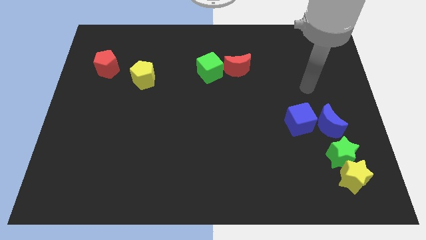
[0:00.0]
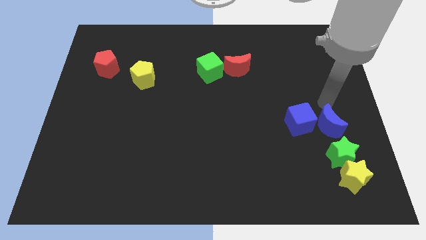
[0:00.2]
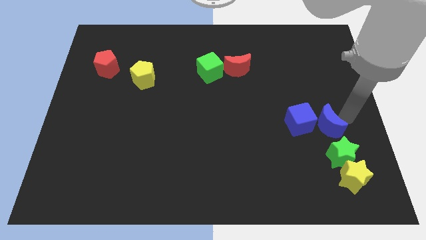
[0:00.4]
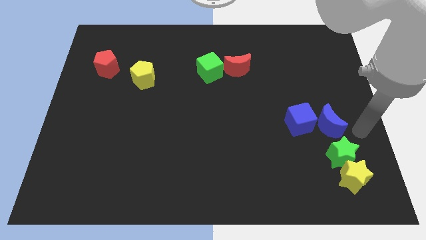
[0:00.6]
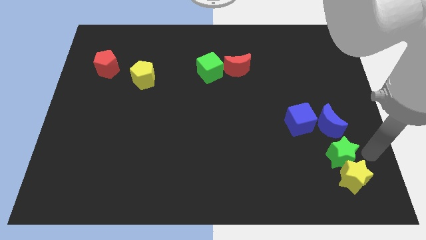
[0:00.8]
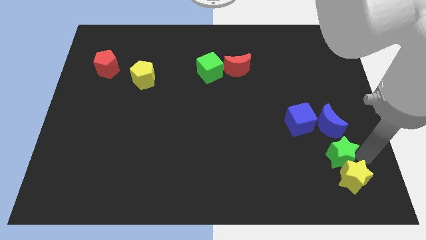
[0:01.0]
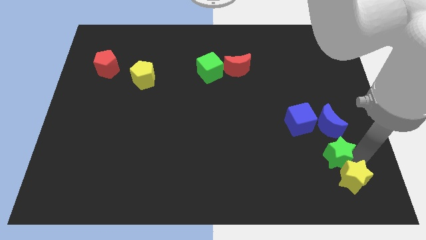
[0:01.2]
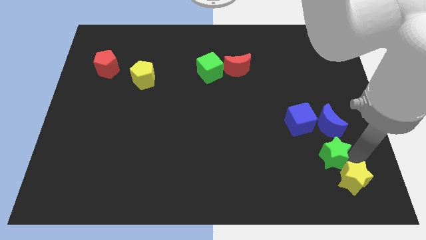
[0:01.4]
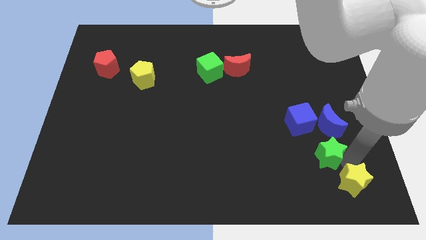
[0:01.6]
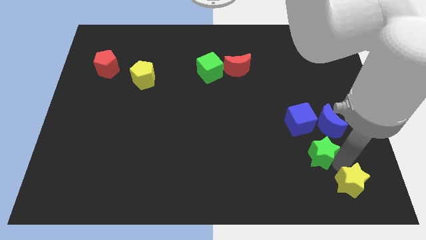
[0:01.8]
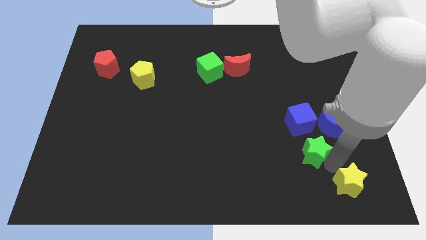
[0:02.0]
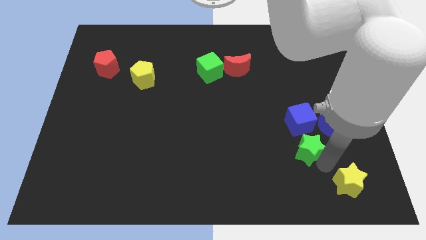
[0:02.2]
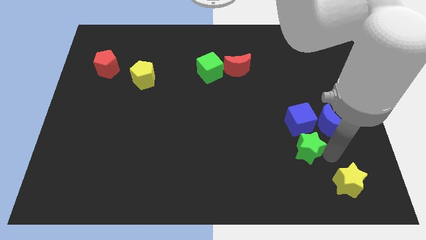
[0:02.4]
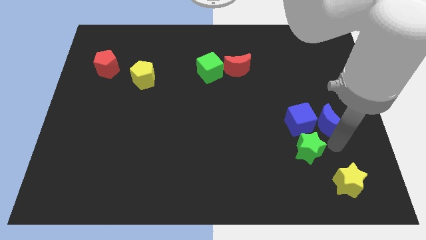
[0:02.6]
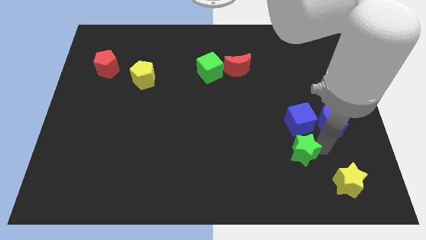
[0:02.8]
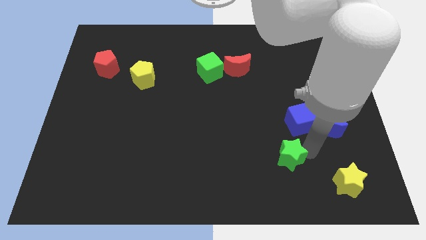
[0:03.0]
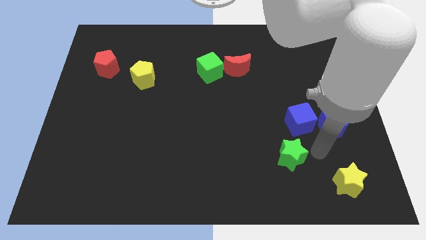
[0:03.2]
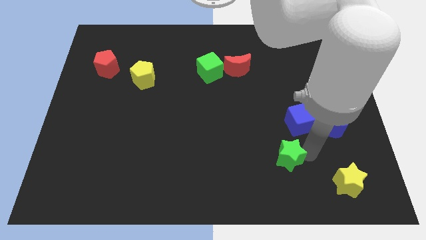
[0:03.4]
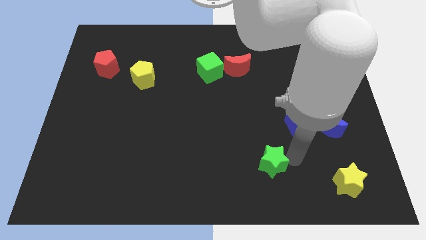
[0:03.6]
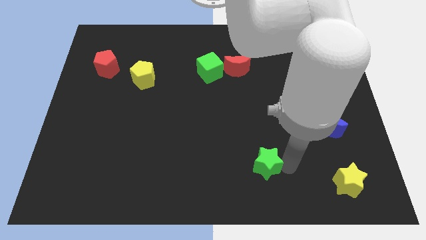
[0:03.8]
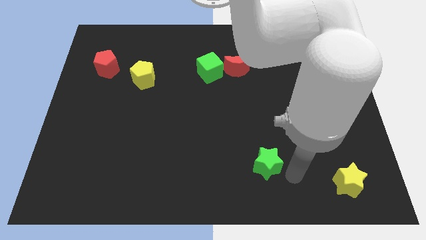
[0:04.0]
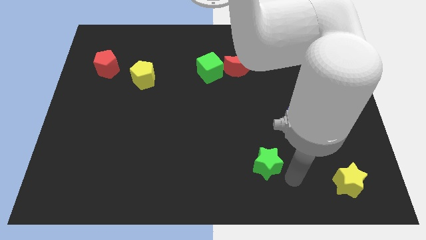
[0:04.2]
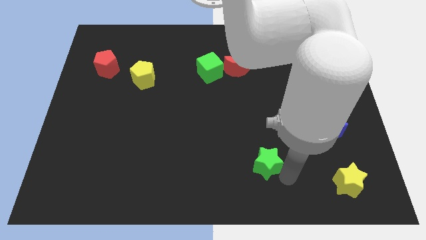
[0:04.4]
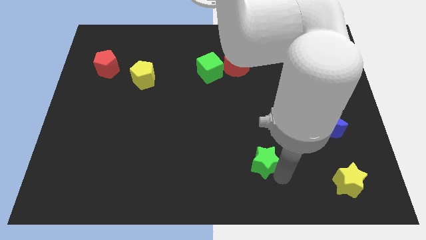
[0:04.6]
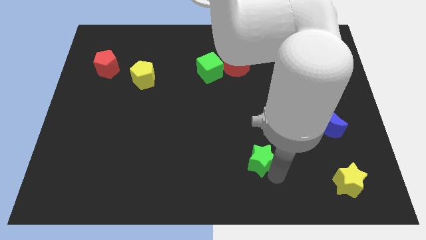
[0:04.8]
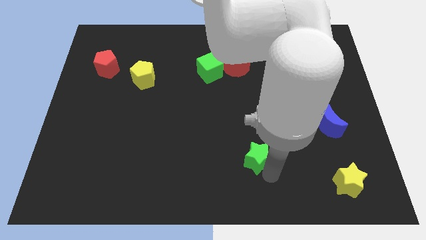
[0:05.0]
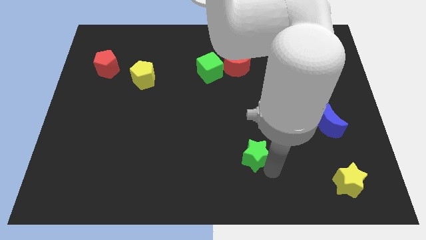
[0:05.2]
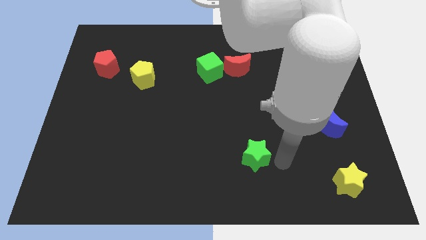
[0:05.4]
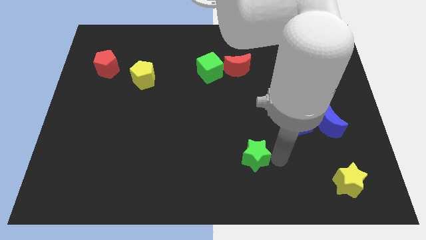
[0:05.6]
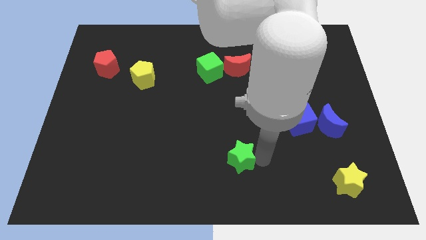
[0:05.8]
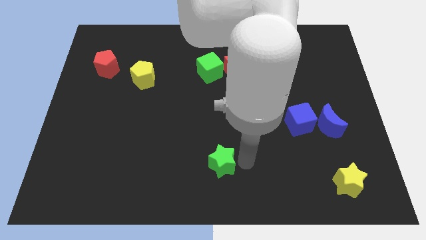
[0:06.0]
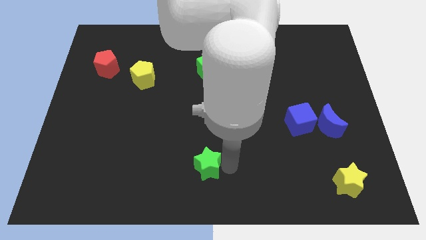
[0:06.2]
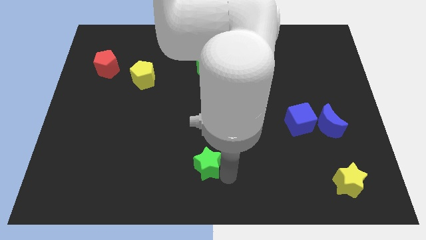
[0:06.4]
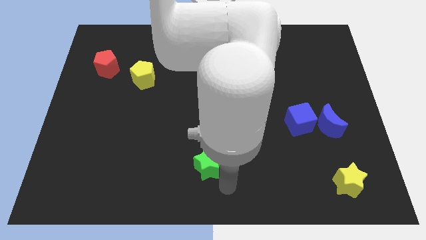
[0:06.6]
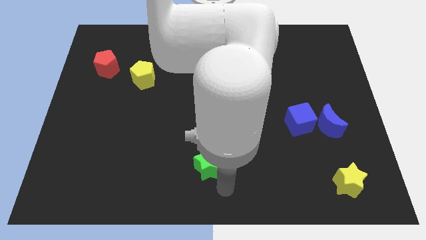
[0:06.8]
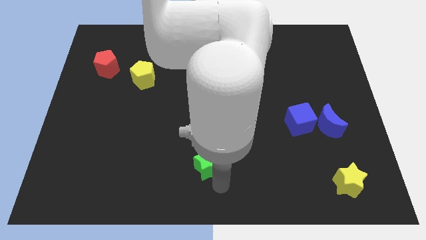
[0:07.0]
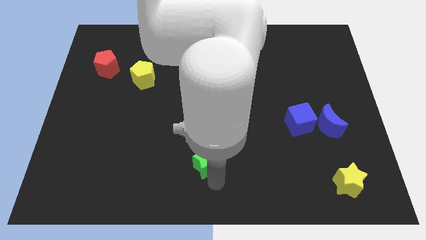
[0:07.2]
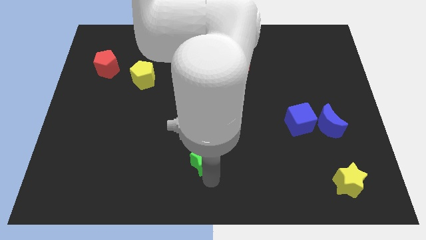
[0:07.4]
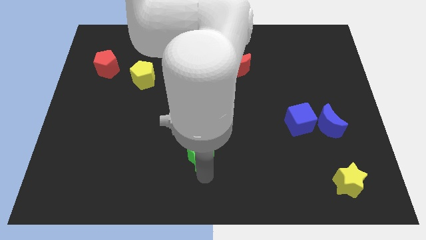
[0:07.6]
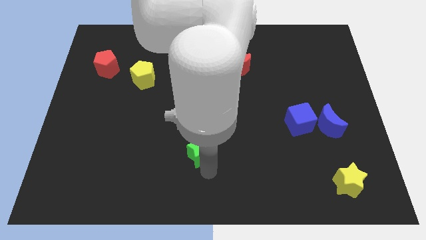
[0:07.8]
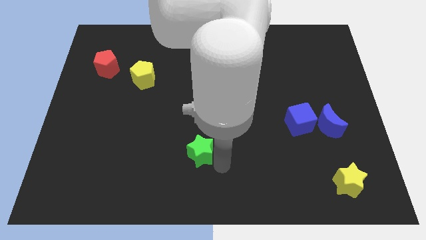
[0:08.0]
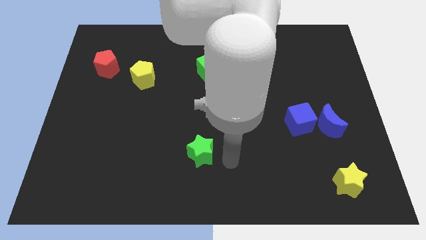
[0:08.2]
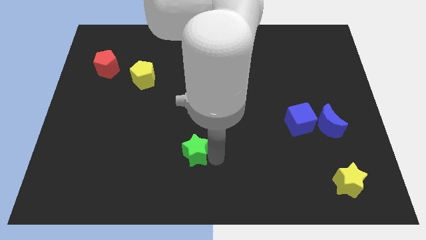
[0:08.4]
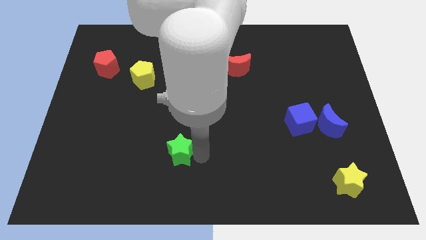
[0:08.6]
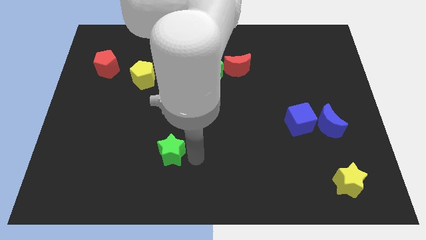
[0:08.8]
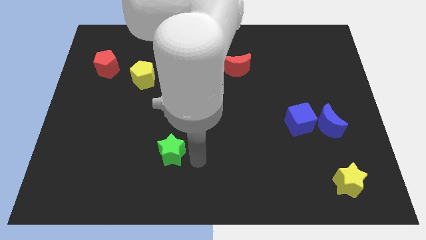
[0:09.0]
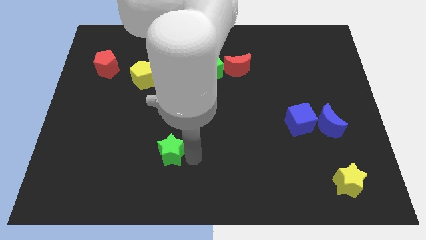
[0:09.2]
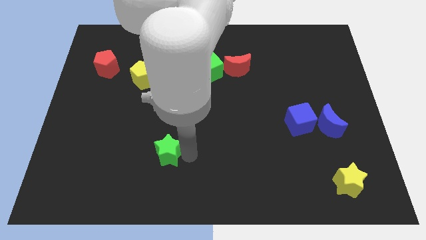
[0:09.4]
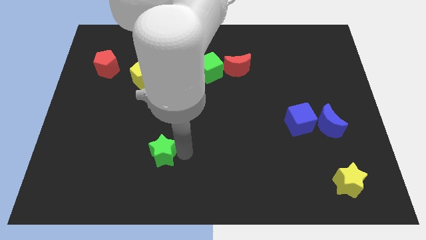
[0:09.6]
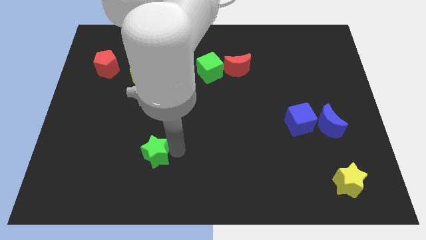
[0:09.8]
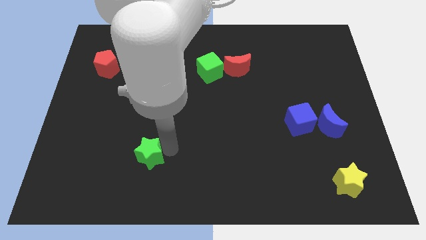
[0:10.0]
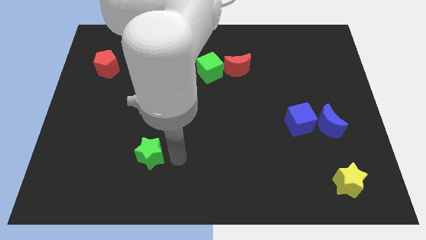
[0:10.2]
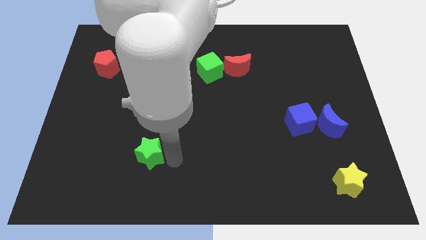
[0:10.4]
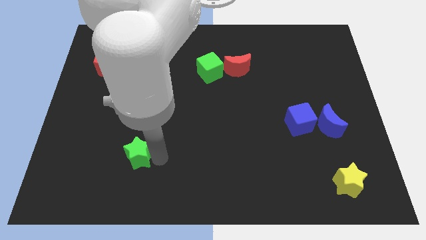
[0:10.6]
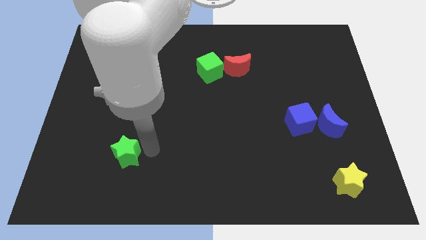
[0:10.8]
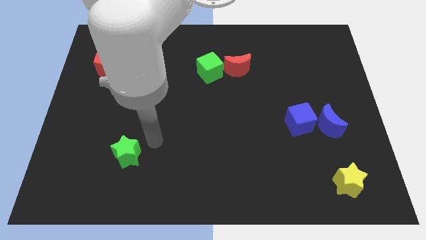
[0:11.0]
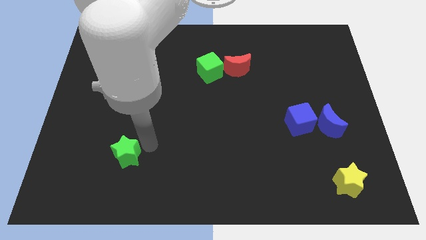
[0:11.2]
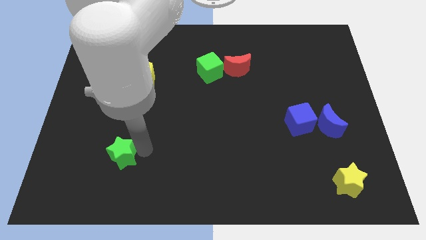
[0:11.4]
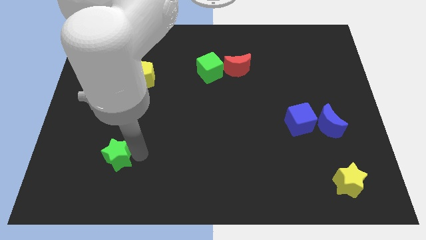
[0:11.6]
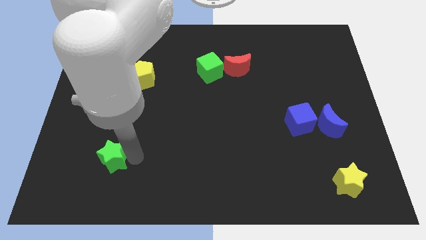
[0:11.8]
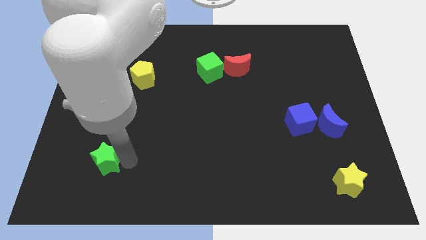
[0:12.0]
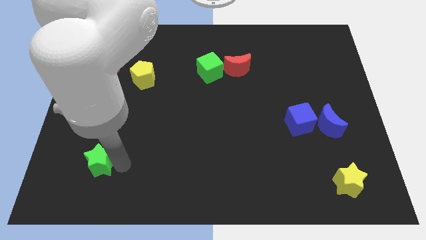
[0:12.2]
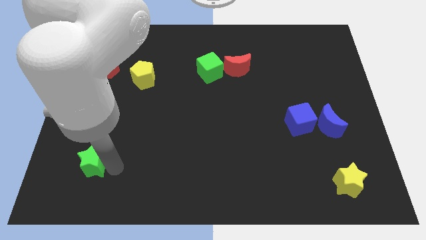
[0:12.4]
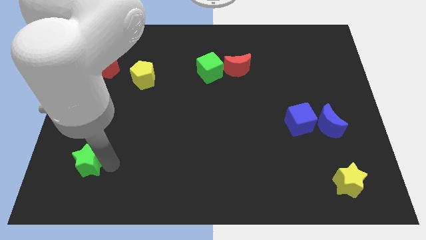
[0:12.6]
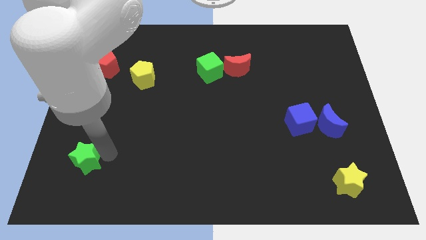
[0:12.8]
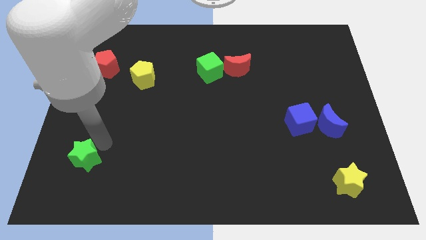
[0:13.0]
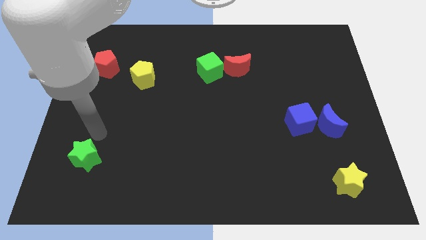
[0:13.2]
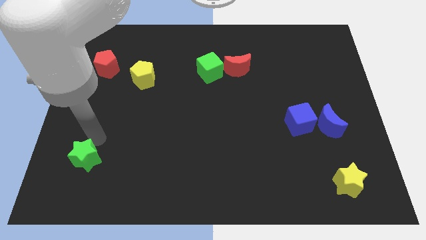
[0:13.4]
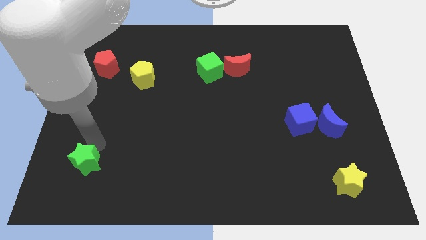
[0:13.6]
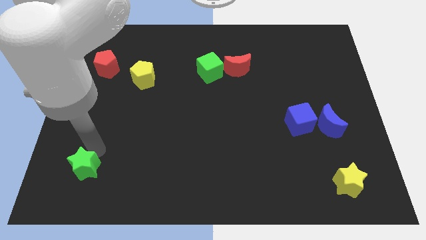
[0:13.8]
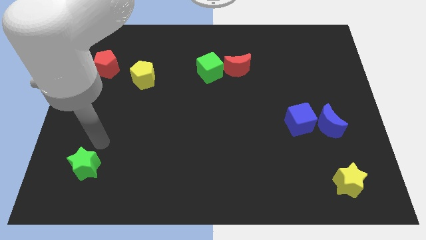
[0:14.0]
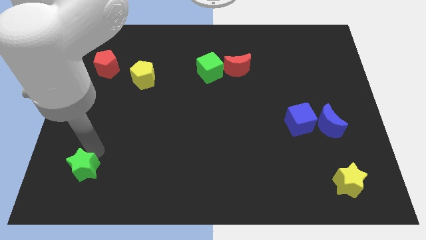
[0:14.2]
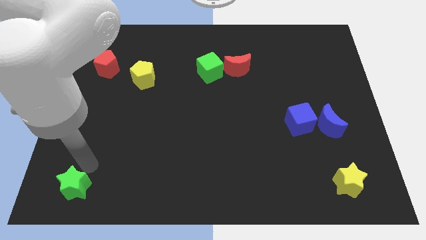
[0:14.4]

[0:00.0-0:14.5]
put the green star to the bottom left
